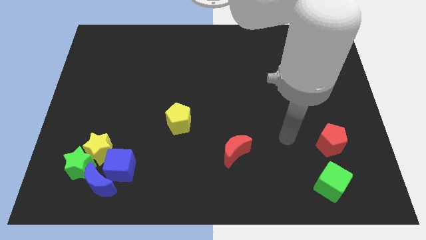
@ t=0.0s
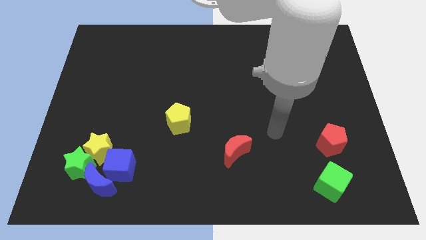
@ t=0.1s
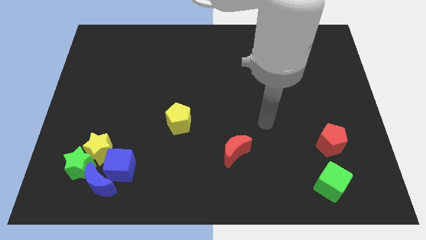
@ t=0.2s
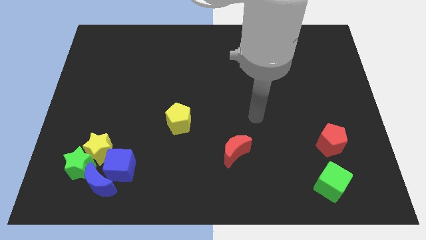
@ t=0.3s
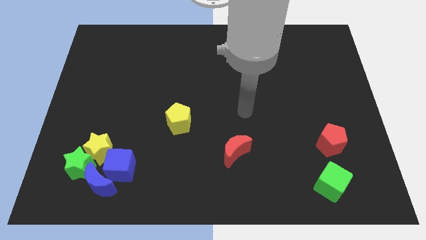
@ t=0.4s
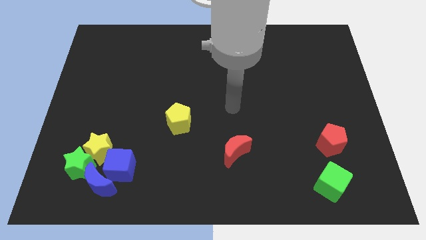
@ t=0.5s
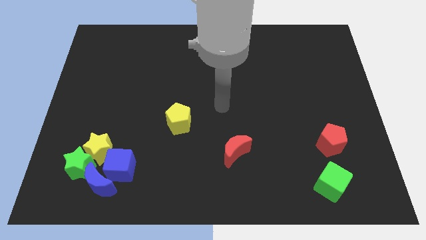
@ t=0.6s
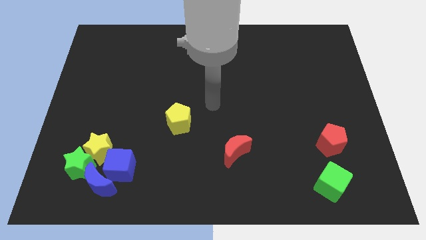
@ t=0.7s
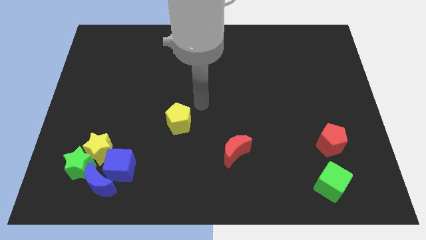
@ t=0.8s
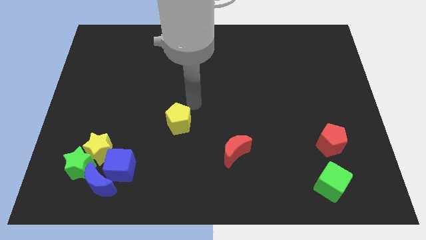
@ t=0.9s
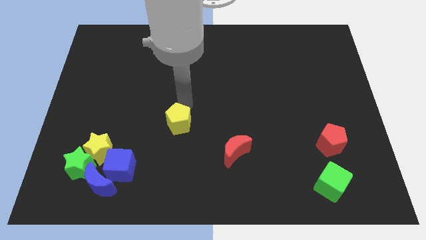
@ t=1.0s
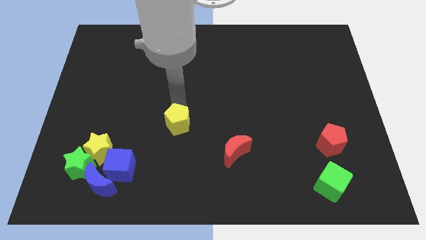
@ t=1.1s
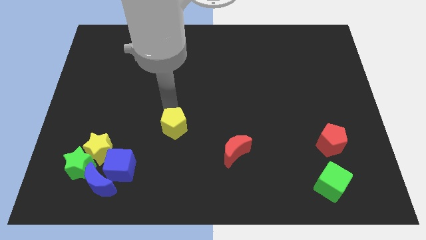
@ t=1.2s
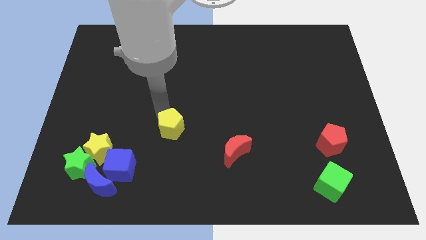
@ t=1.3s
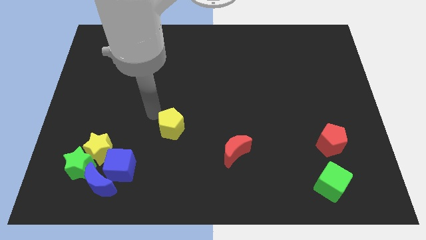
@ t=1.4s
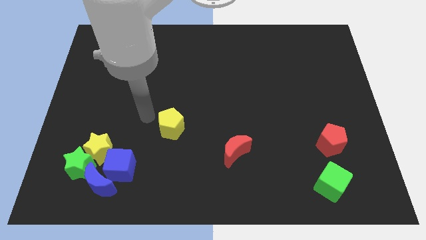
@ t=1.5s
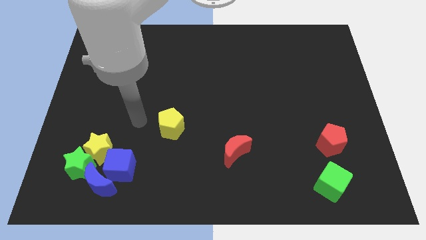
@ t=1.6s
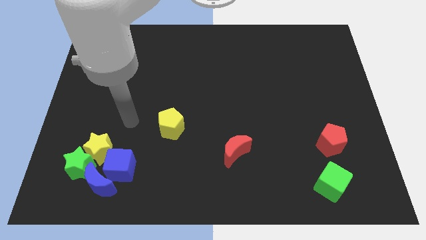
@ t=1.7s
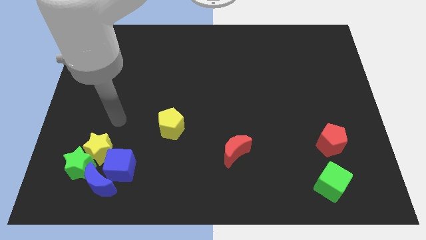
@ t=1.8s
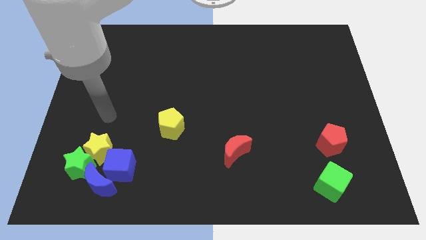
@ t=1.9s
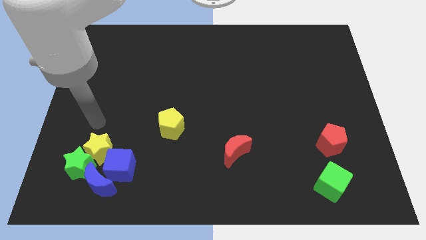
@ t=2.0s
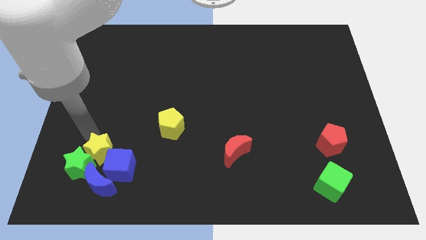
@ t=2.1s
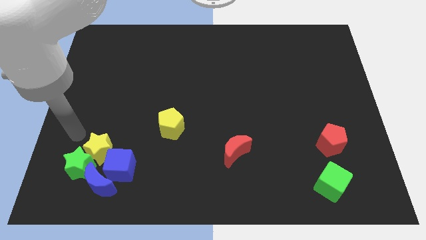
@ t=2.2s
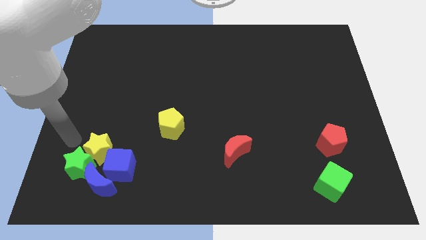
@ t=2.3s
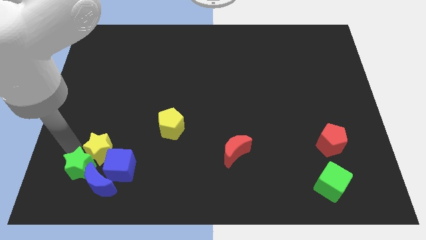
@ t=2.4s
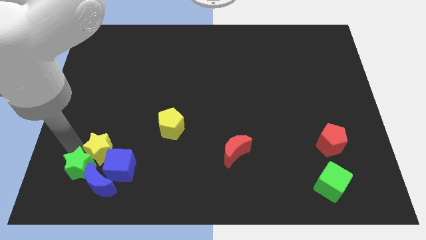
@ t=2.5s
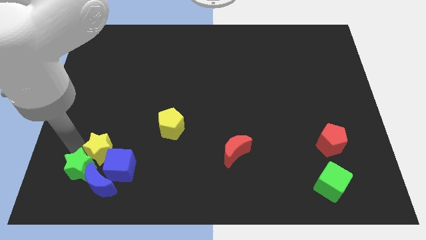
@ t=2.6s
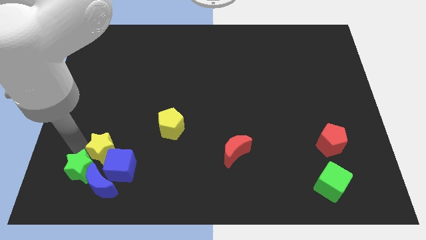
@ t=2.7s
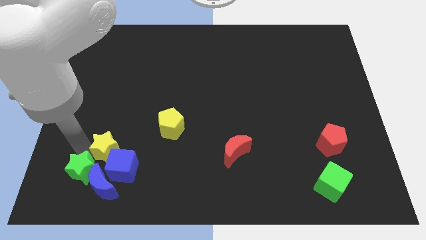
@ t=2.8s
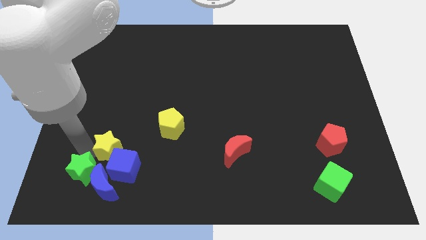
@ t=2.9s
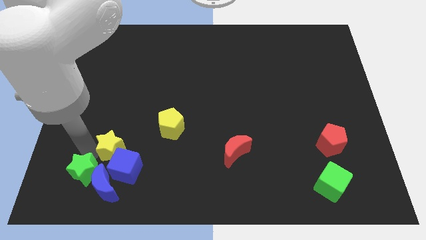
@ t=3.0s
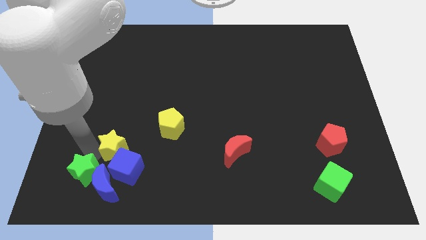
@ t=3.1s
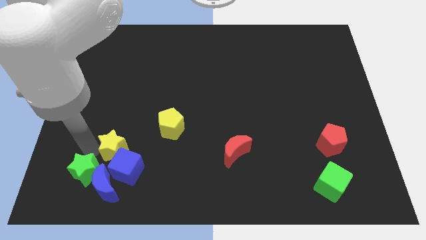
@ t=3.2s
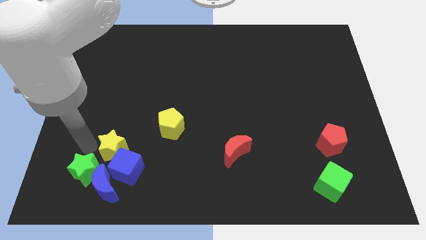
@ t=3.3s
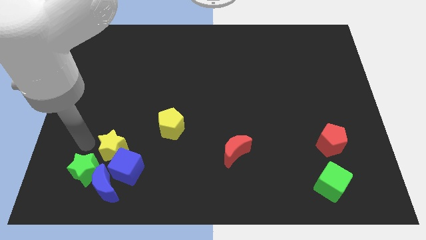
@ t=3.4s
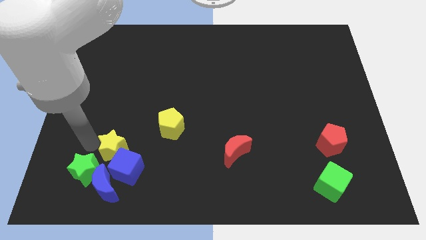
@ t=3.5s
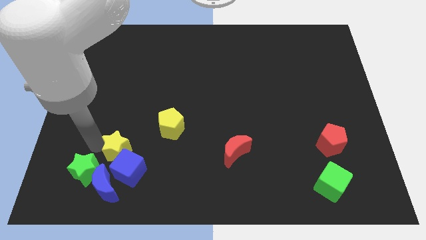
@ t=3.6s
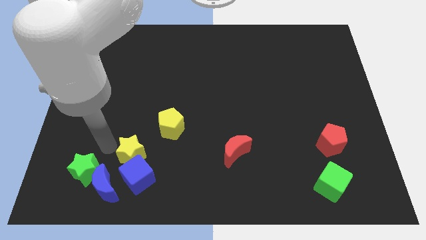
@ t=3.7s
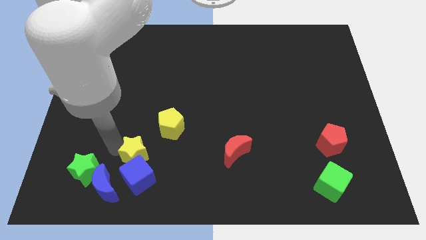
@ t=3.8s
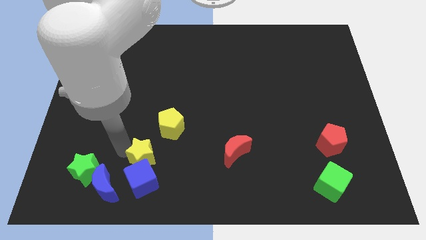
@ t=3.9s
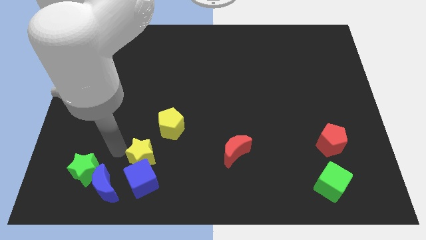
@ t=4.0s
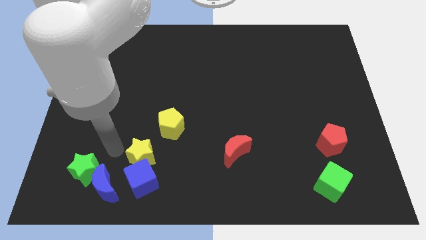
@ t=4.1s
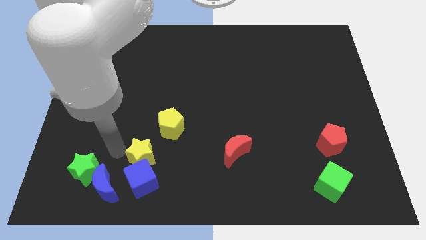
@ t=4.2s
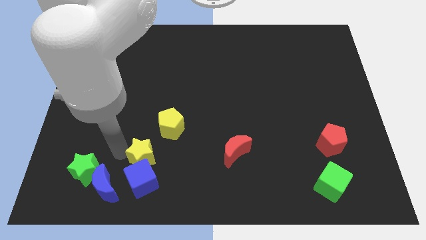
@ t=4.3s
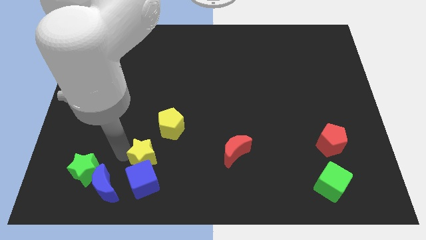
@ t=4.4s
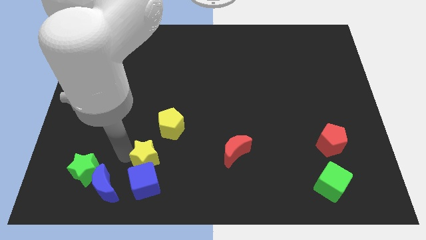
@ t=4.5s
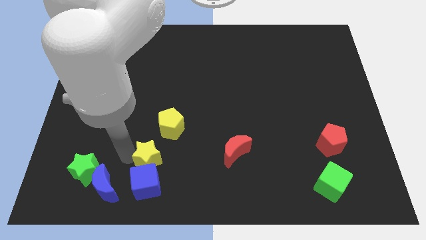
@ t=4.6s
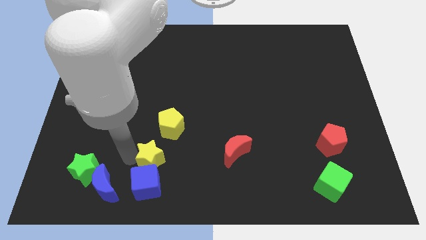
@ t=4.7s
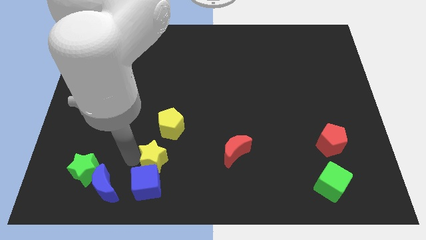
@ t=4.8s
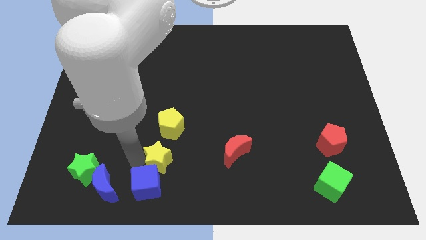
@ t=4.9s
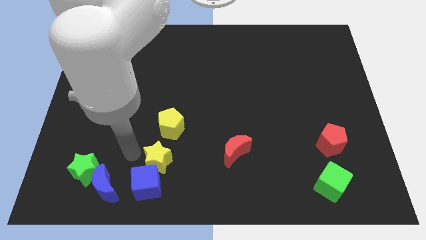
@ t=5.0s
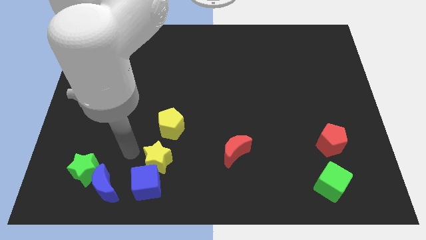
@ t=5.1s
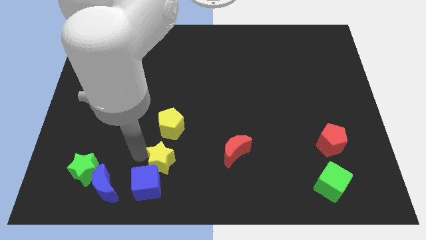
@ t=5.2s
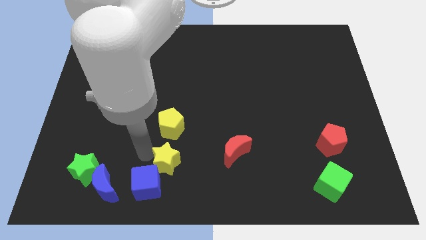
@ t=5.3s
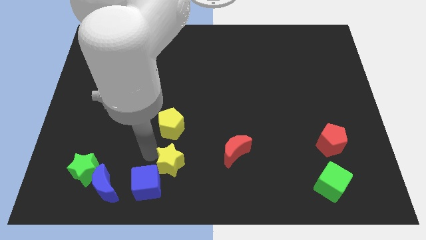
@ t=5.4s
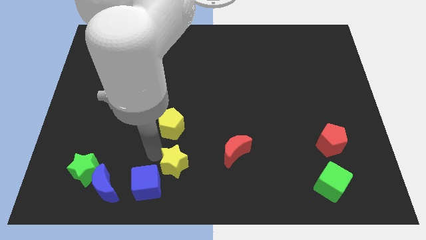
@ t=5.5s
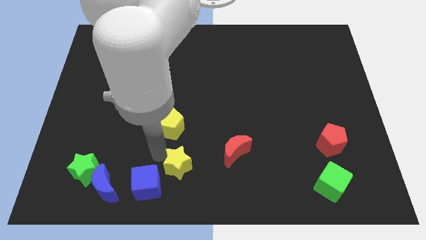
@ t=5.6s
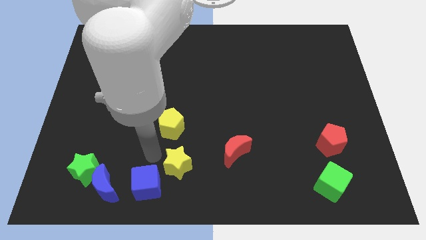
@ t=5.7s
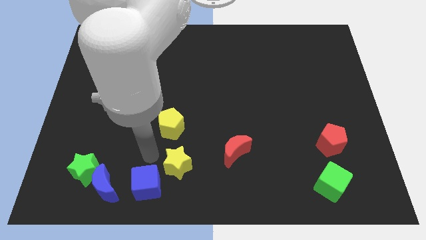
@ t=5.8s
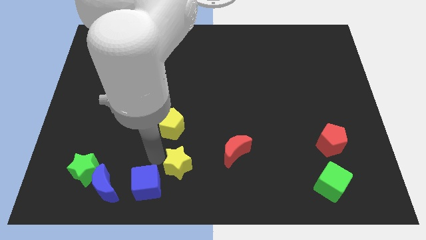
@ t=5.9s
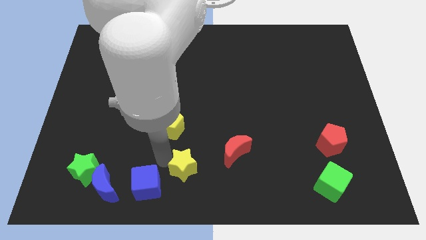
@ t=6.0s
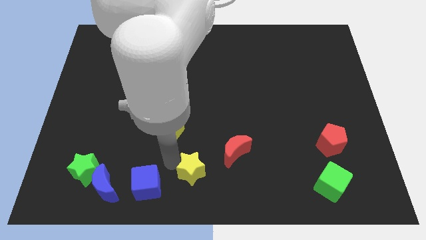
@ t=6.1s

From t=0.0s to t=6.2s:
move the yellow star to the bottom left side of the red moon
